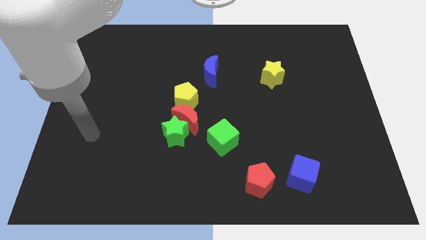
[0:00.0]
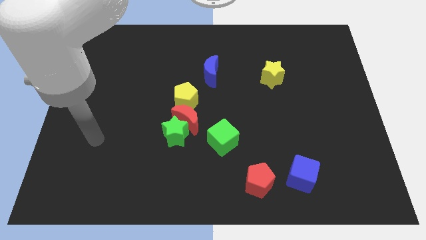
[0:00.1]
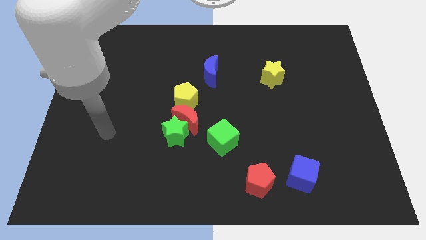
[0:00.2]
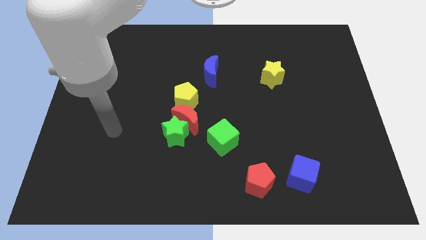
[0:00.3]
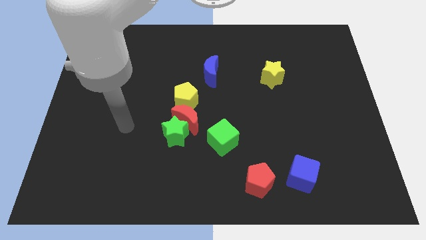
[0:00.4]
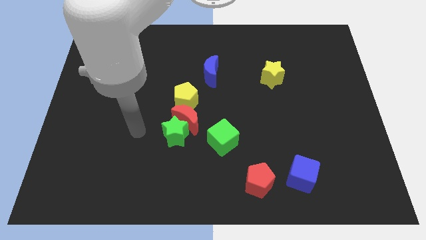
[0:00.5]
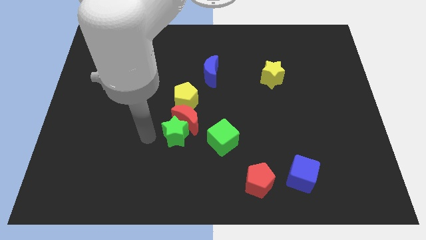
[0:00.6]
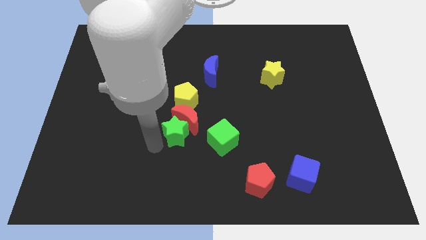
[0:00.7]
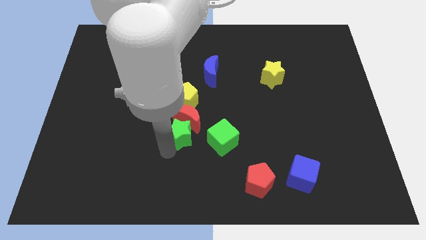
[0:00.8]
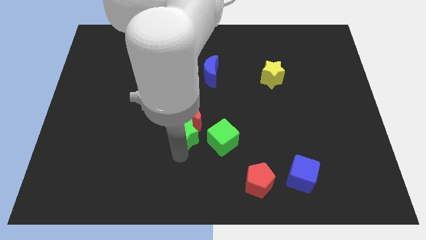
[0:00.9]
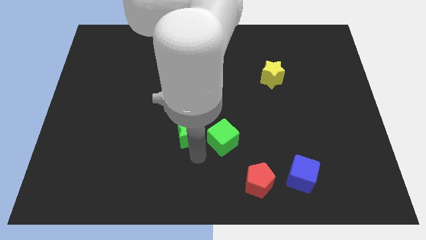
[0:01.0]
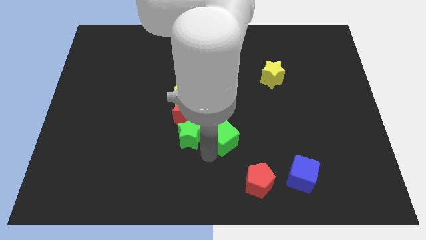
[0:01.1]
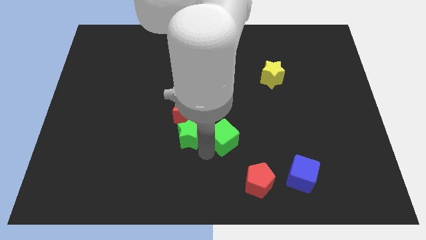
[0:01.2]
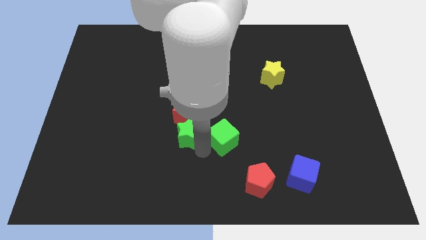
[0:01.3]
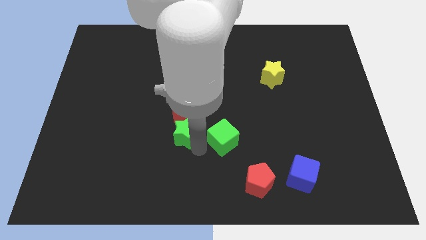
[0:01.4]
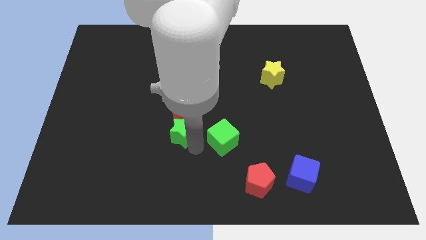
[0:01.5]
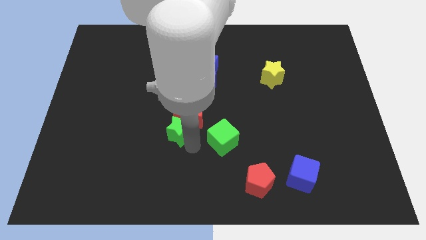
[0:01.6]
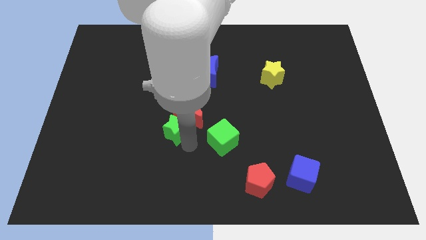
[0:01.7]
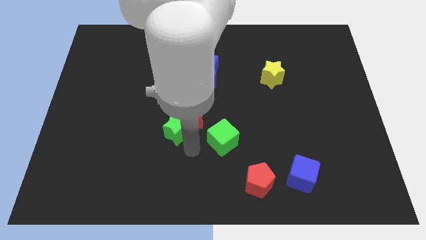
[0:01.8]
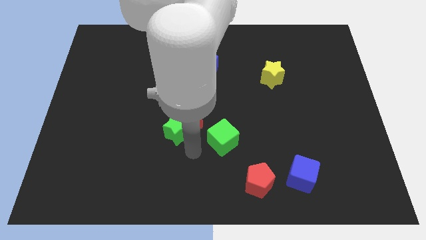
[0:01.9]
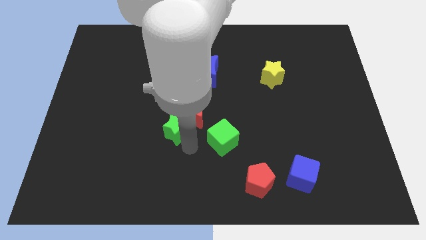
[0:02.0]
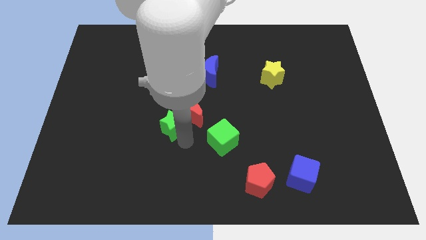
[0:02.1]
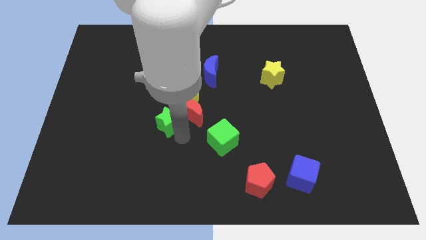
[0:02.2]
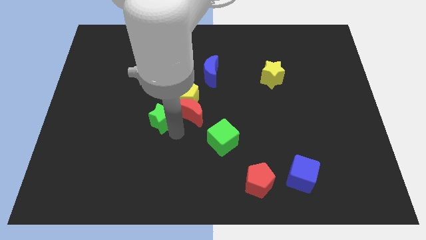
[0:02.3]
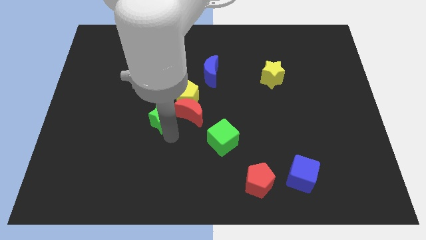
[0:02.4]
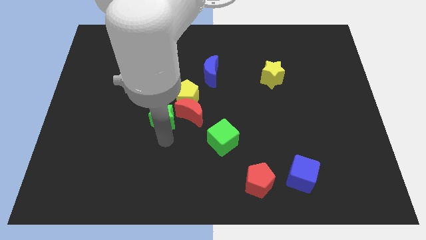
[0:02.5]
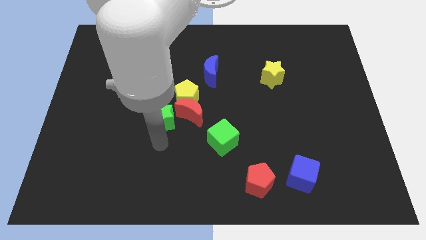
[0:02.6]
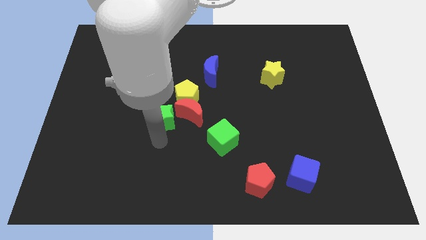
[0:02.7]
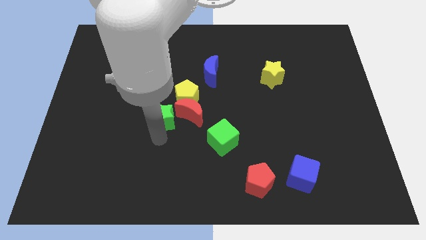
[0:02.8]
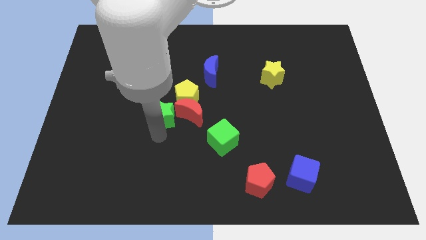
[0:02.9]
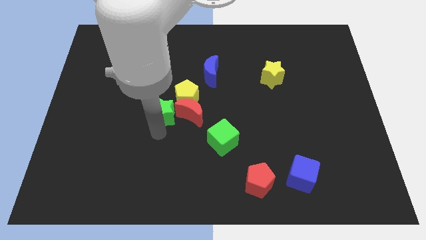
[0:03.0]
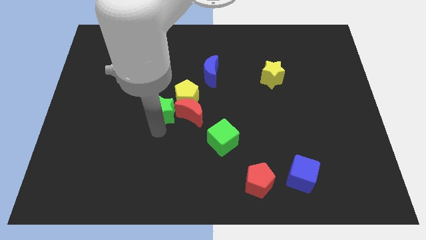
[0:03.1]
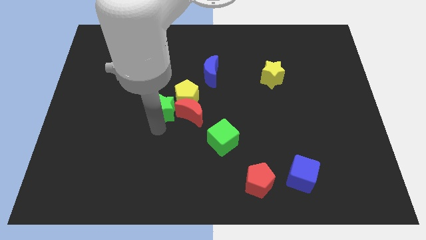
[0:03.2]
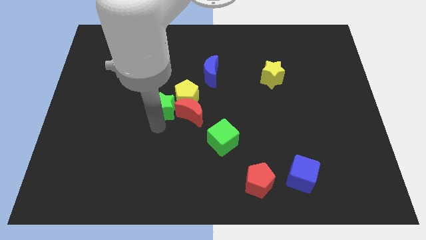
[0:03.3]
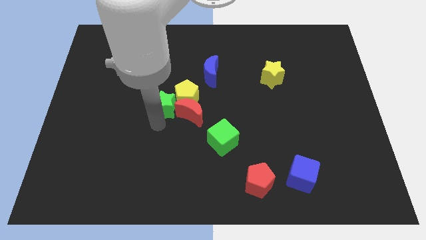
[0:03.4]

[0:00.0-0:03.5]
move the green star a little bit up

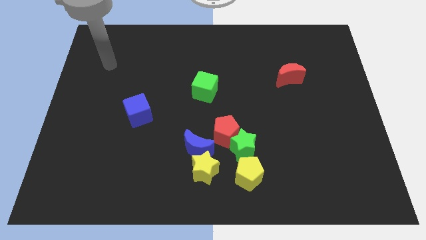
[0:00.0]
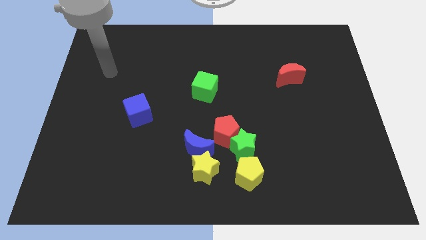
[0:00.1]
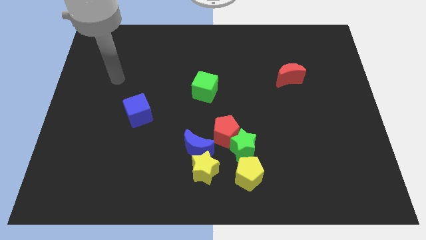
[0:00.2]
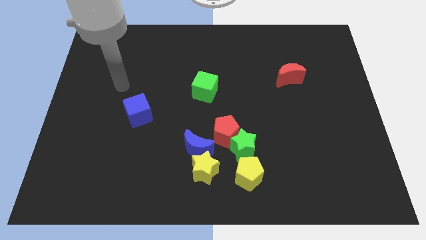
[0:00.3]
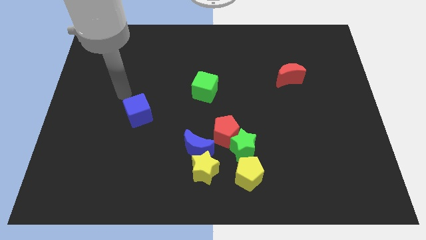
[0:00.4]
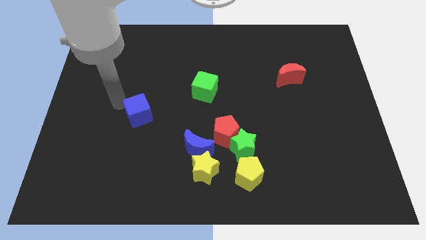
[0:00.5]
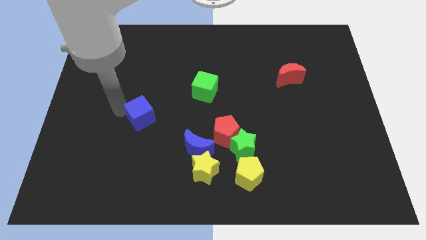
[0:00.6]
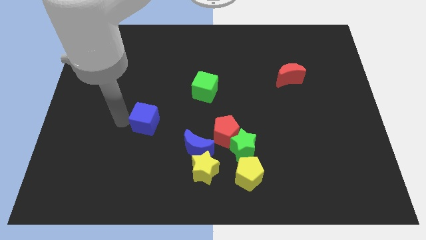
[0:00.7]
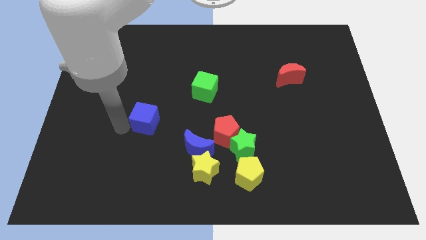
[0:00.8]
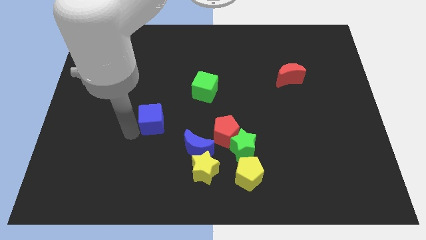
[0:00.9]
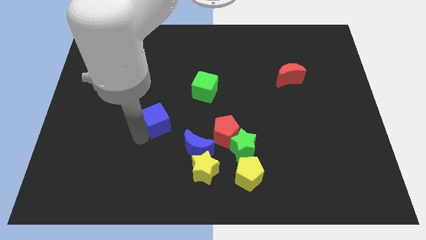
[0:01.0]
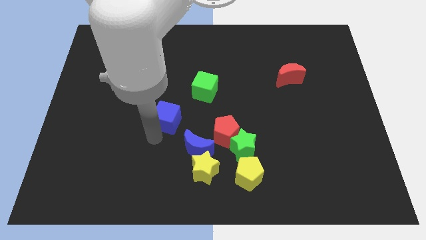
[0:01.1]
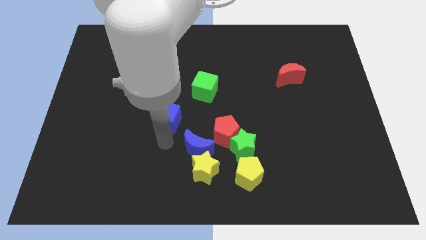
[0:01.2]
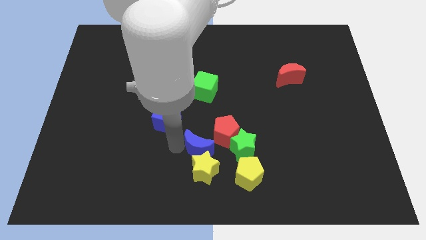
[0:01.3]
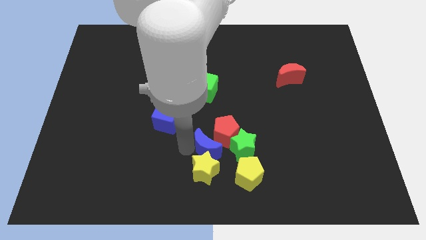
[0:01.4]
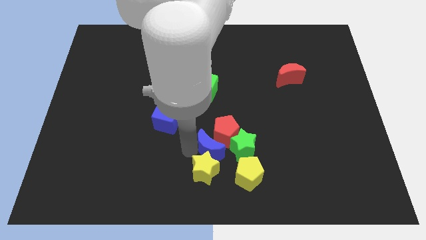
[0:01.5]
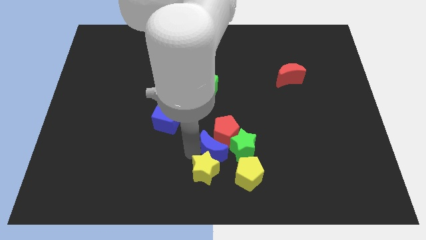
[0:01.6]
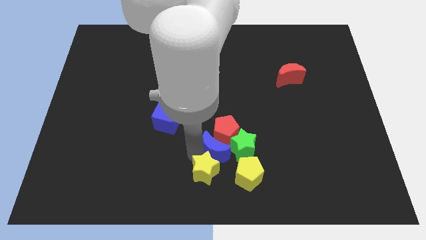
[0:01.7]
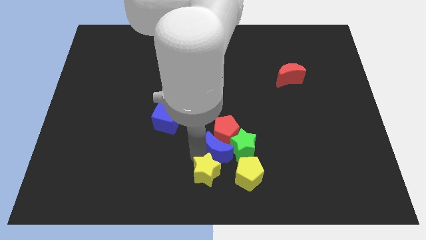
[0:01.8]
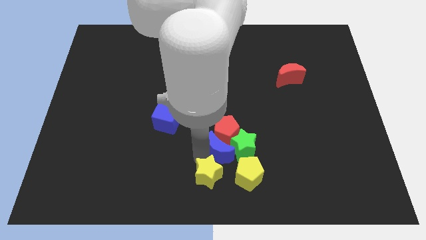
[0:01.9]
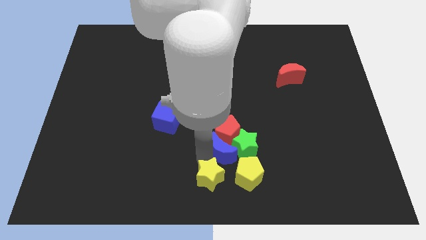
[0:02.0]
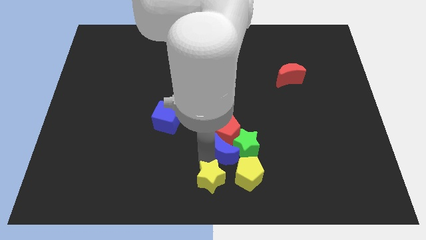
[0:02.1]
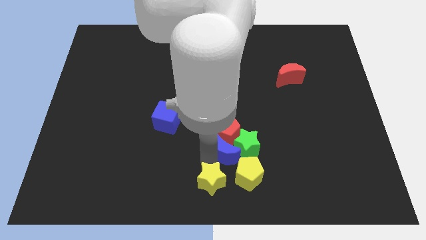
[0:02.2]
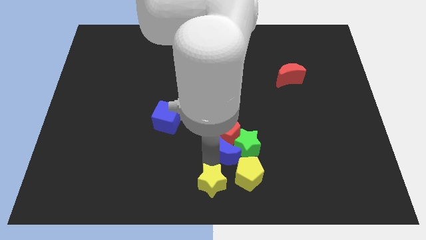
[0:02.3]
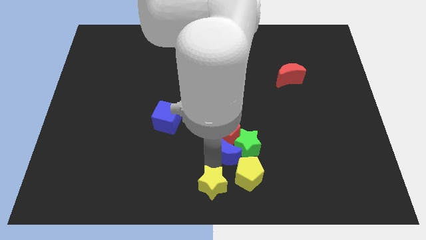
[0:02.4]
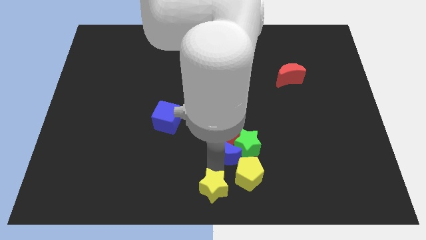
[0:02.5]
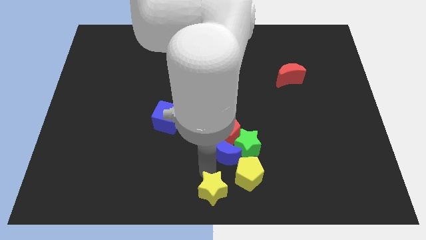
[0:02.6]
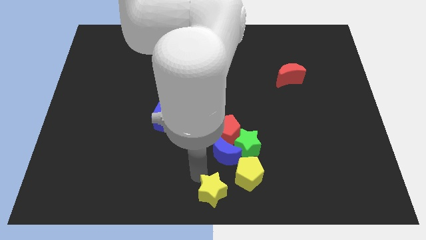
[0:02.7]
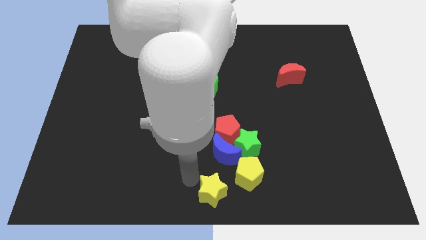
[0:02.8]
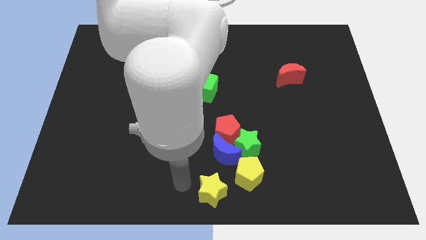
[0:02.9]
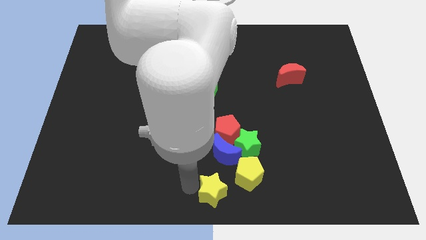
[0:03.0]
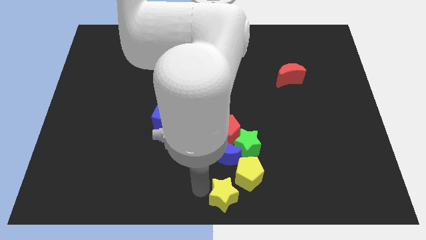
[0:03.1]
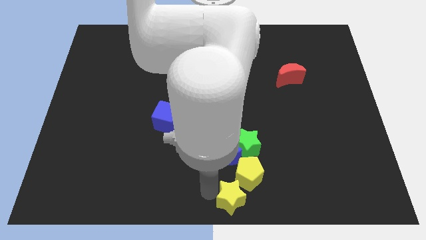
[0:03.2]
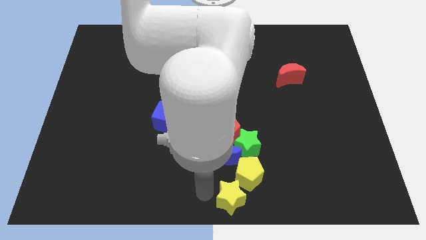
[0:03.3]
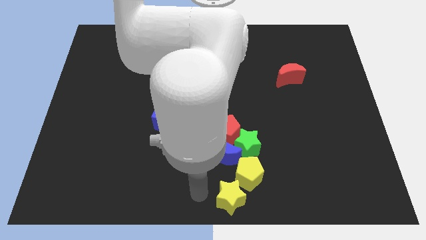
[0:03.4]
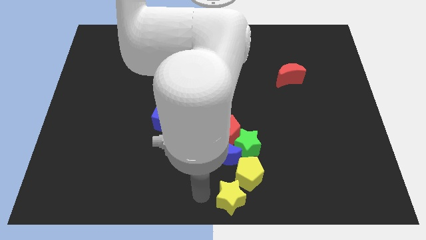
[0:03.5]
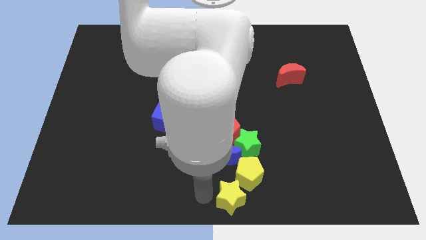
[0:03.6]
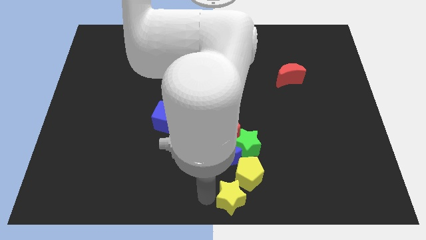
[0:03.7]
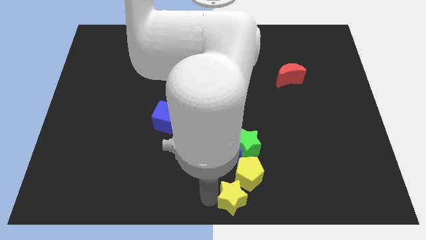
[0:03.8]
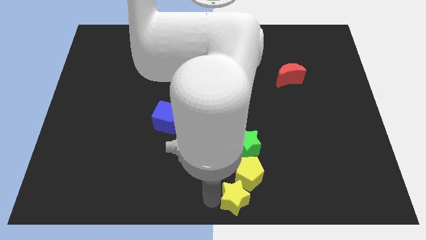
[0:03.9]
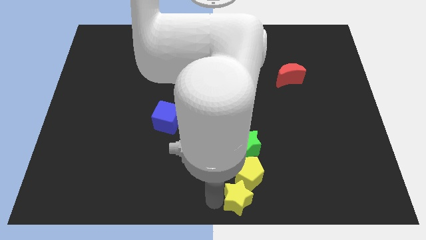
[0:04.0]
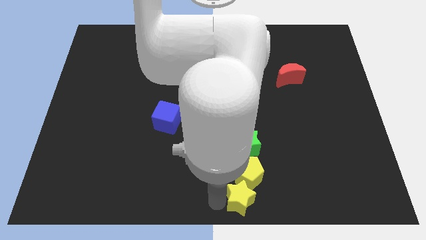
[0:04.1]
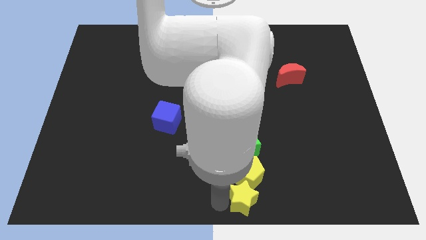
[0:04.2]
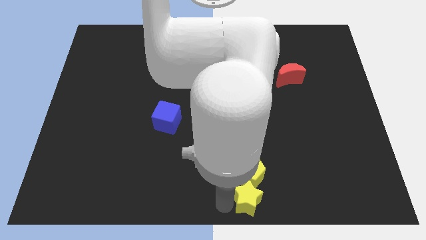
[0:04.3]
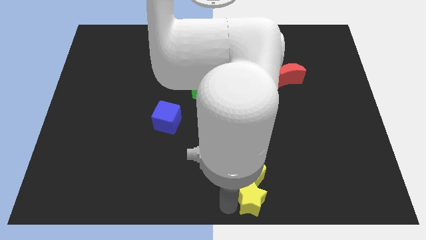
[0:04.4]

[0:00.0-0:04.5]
push the yellow star somewhat to the right
